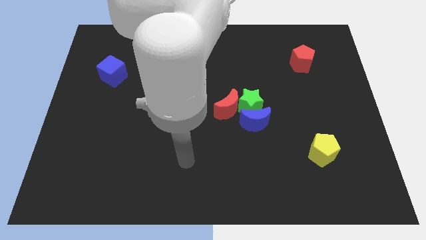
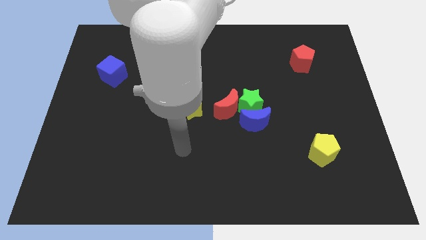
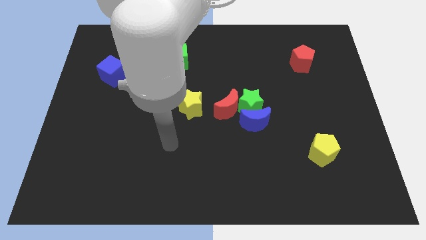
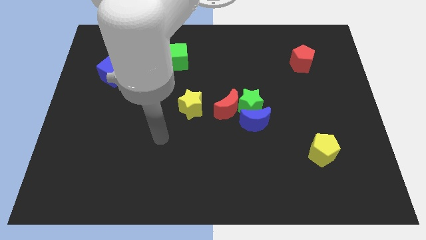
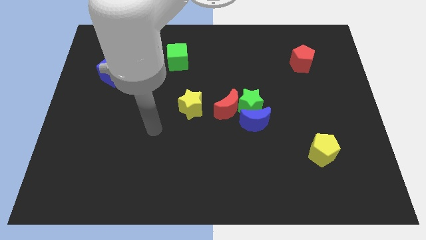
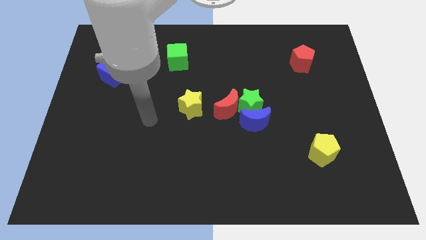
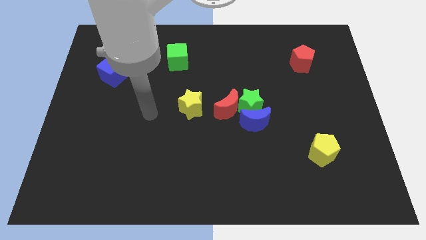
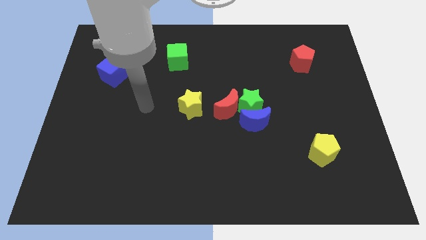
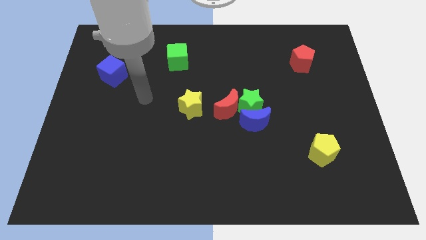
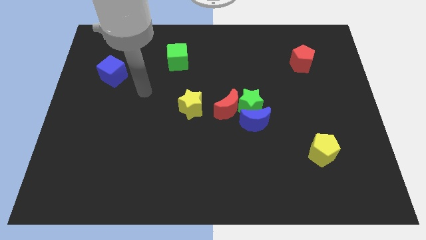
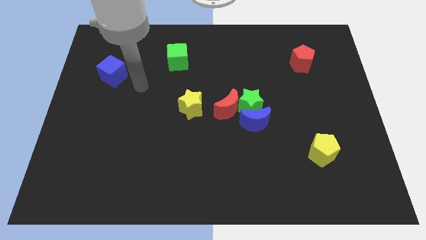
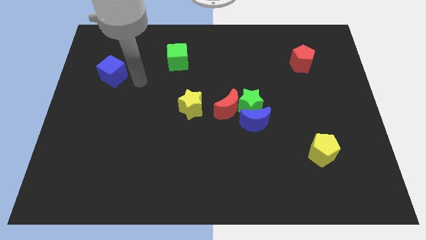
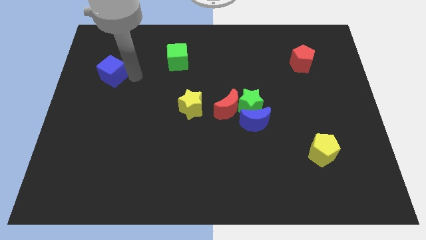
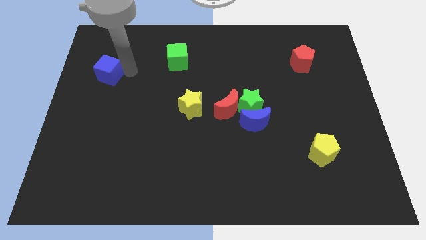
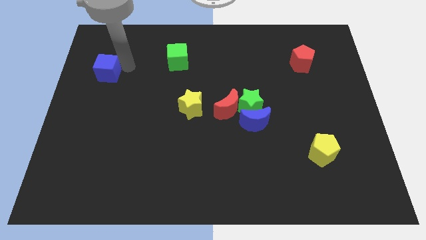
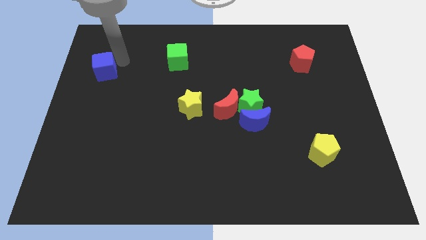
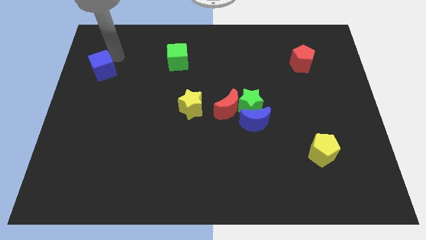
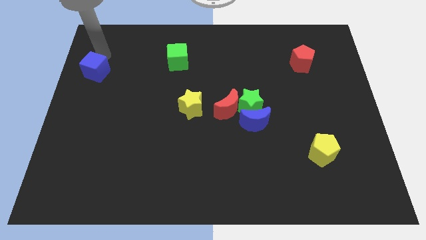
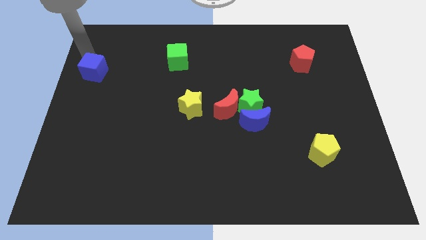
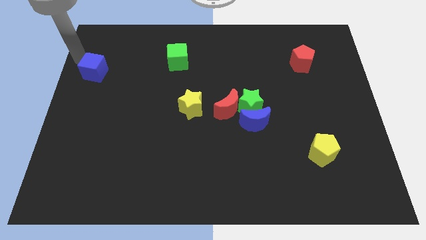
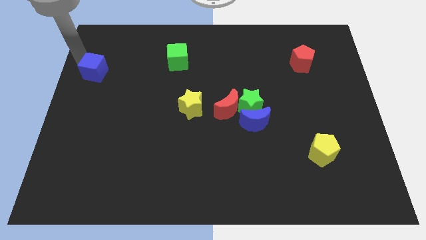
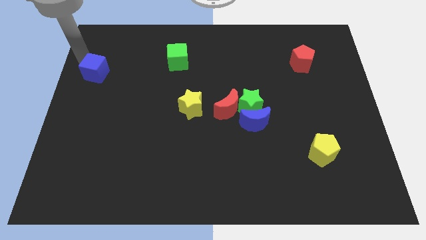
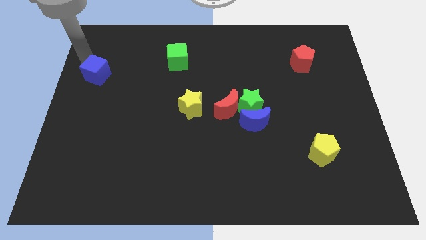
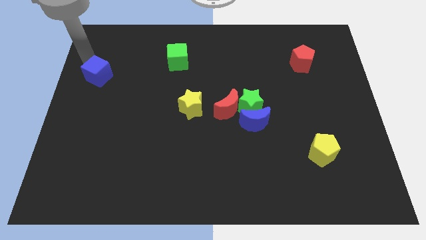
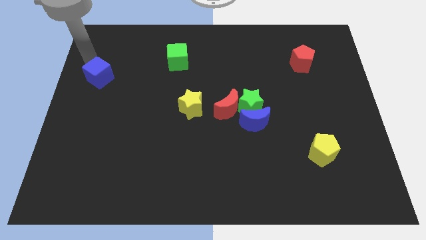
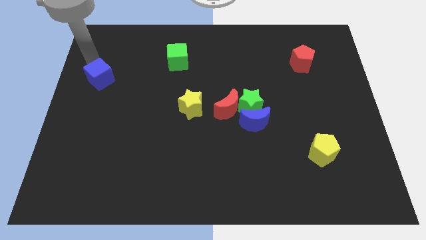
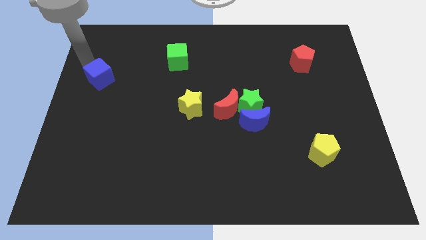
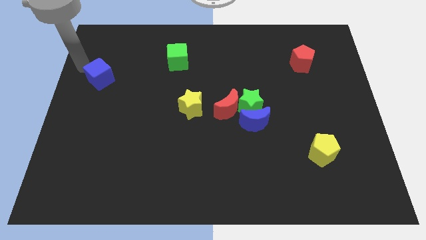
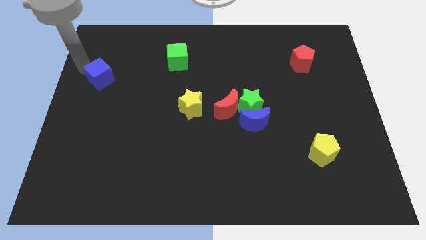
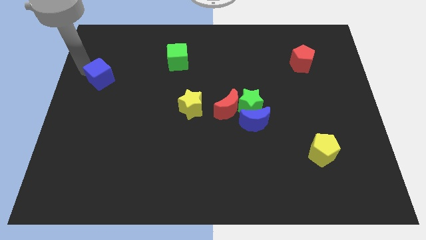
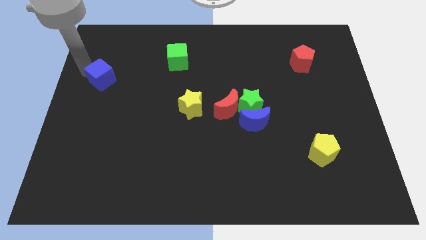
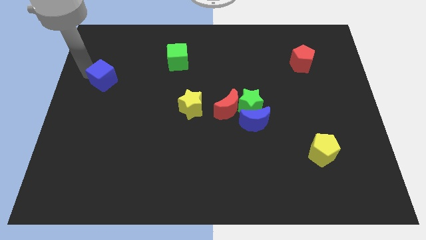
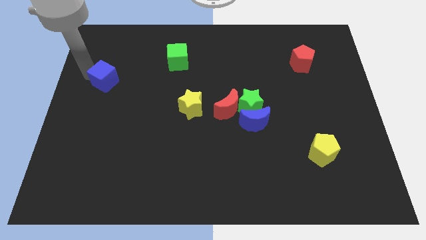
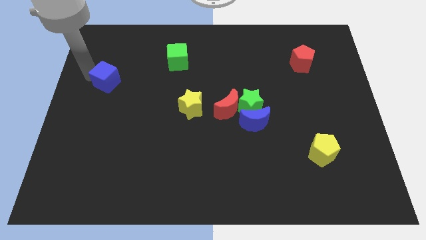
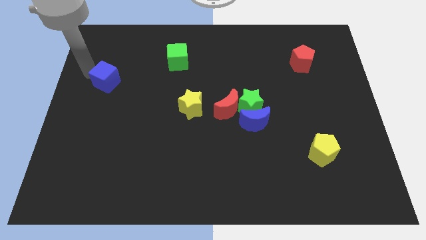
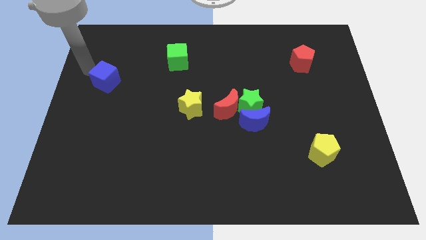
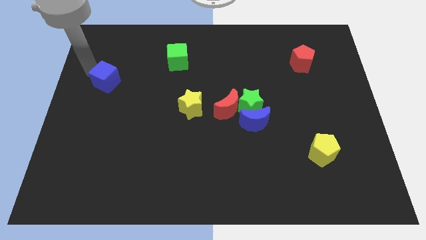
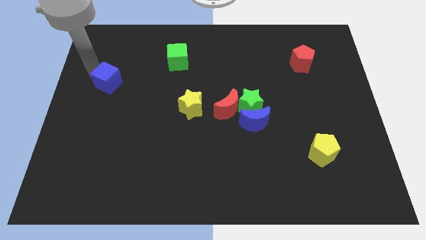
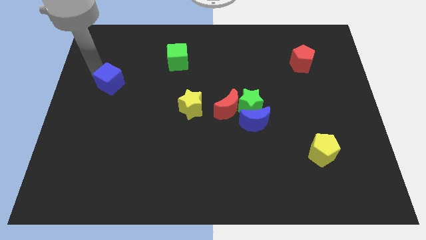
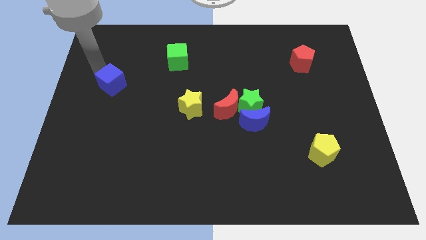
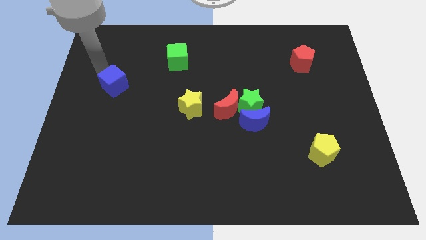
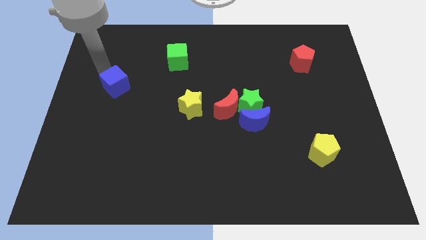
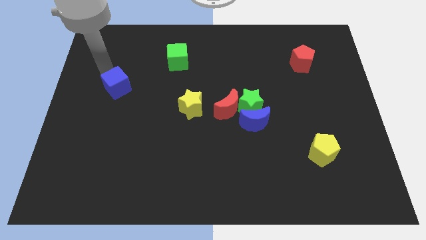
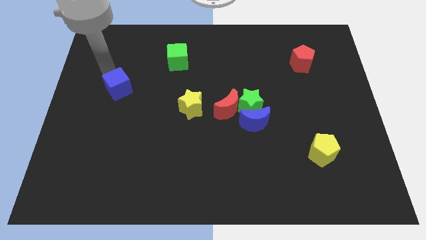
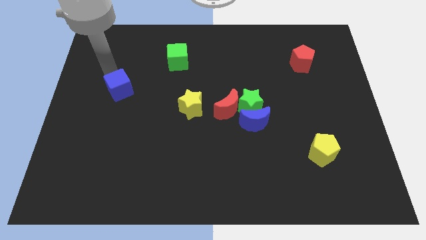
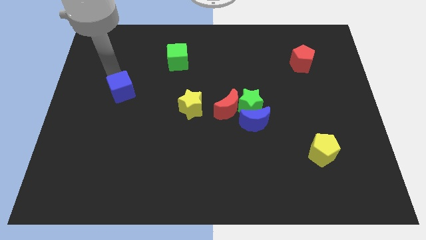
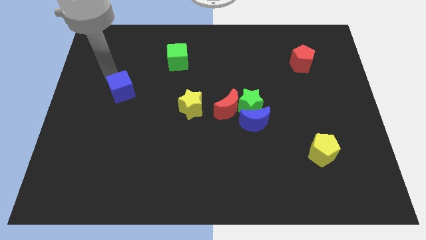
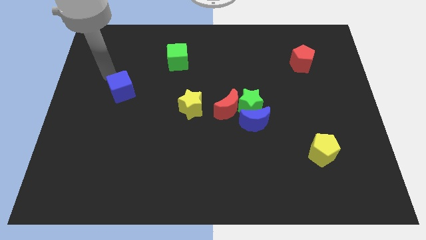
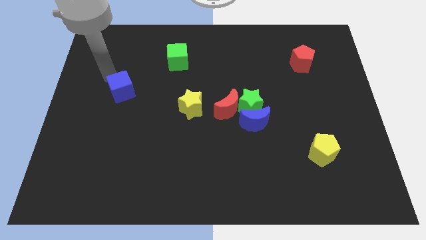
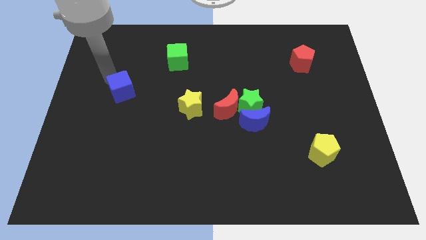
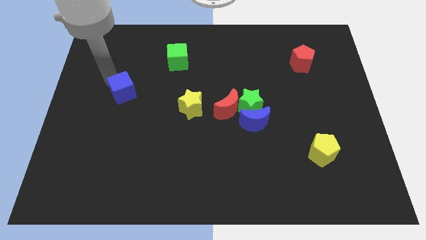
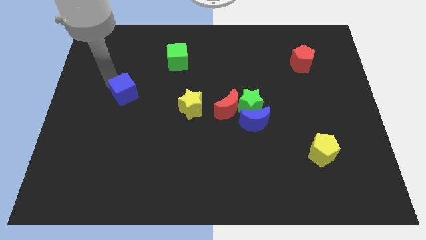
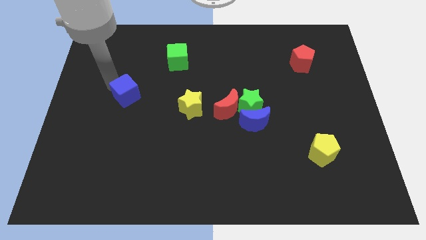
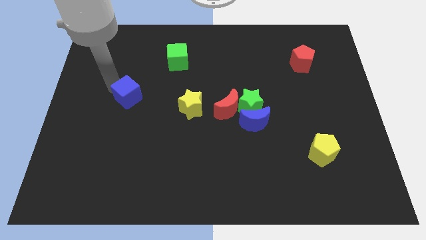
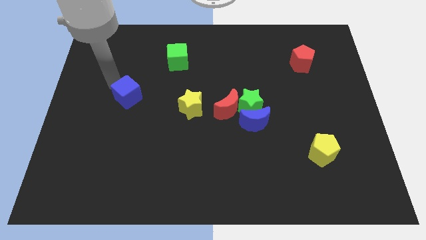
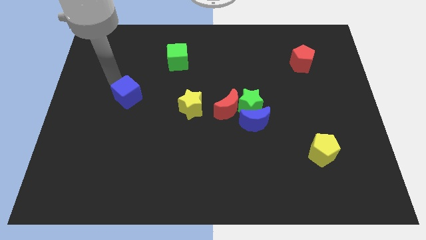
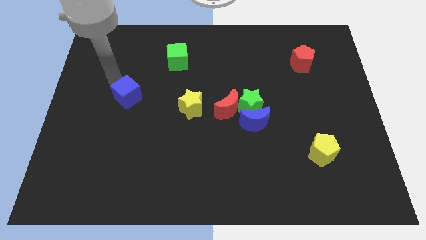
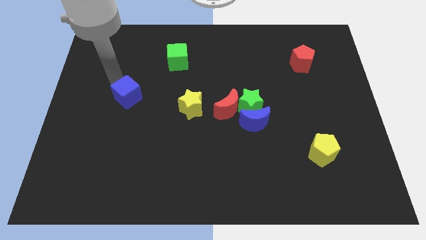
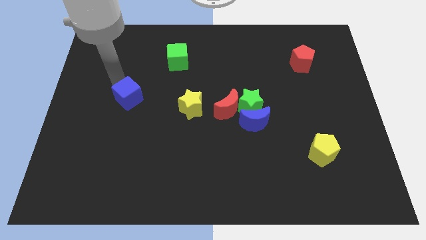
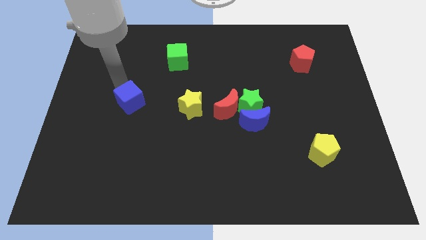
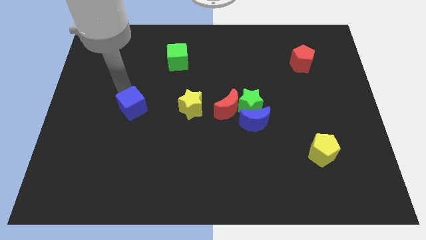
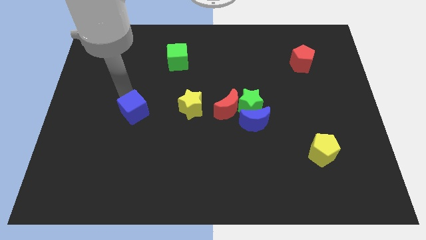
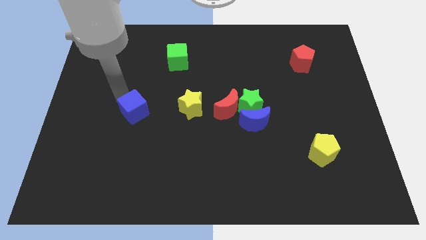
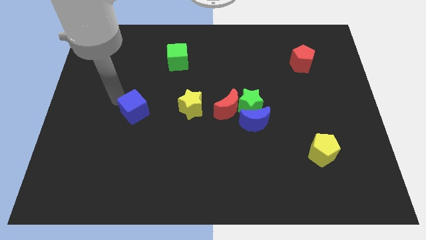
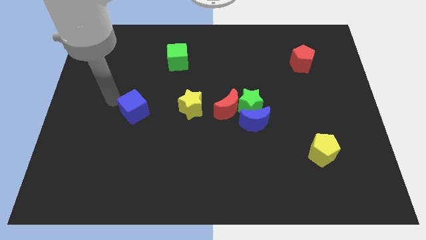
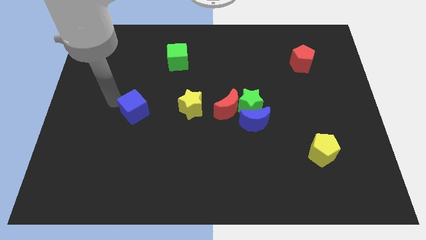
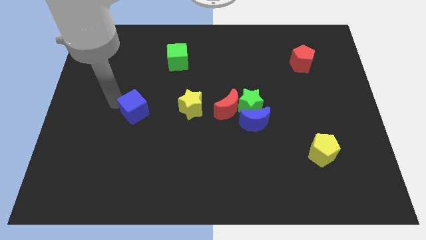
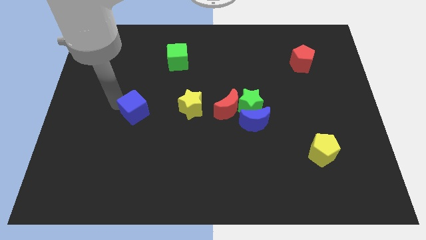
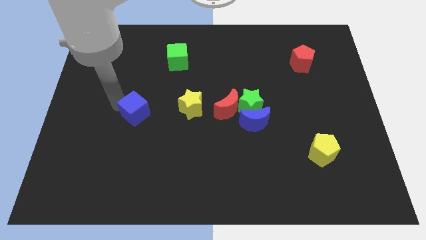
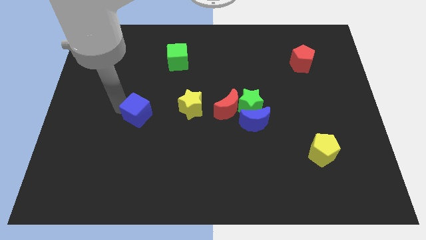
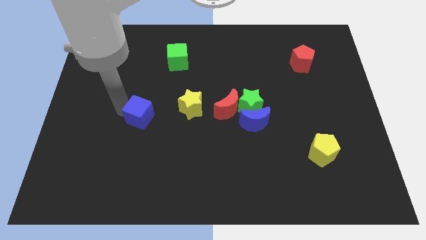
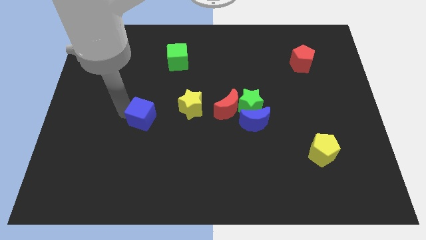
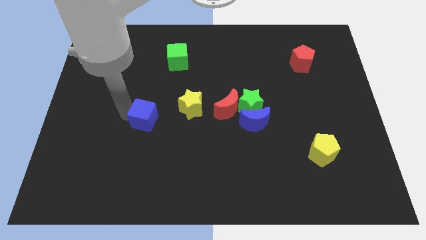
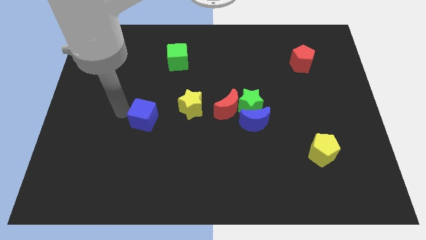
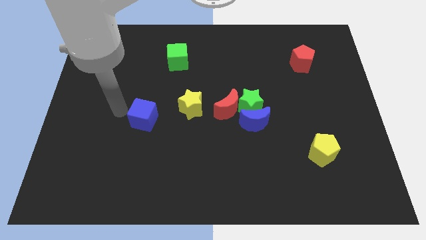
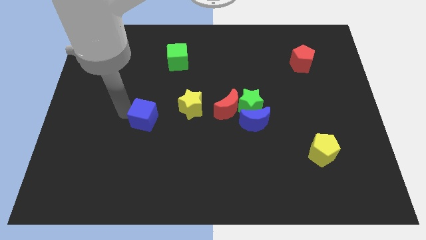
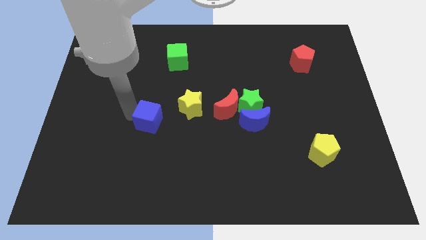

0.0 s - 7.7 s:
move the blue cube diagonally down and to the left of the yellow star
